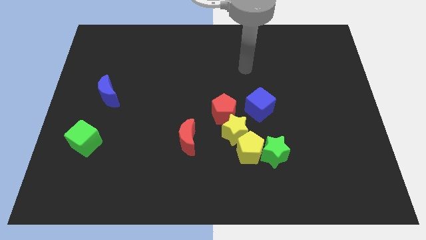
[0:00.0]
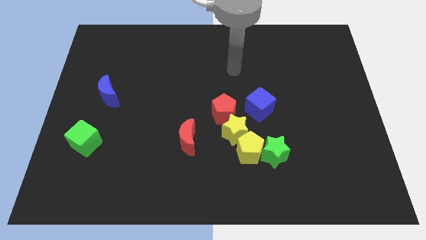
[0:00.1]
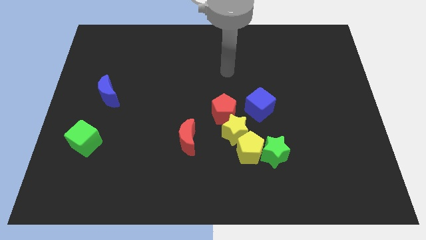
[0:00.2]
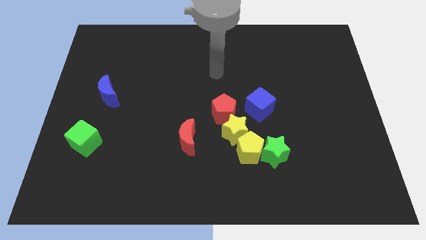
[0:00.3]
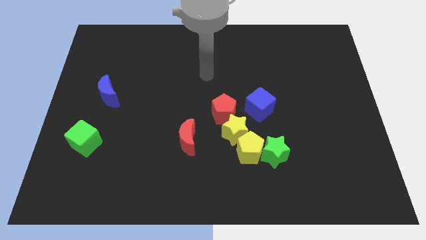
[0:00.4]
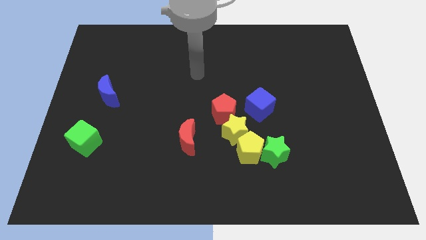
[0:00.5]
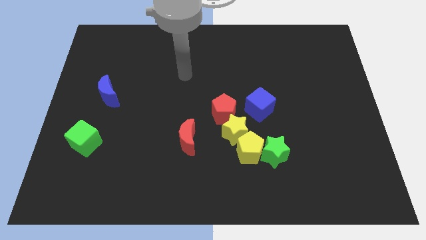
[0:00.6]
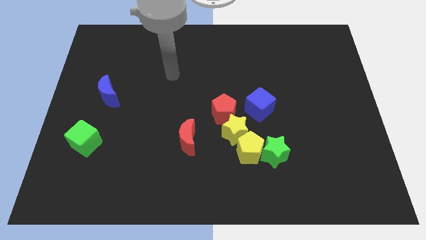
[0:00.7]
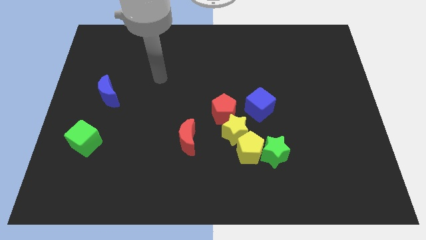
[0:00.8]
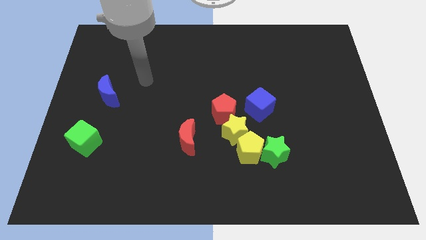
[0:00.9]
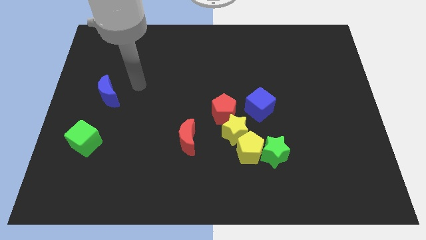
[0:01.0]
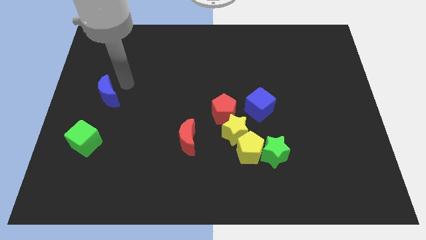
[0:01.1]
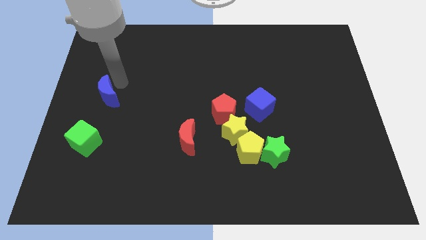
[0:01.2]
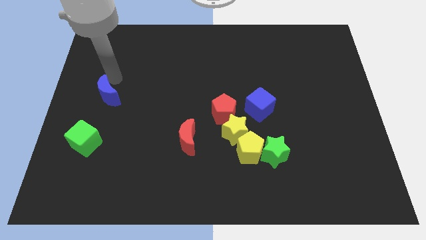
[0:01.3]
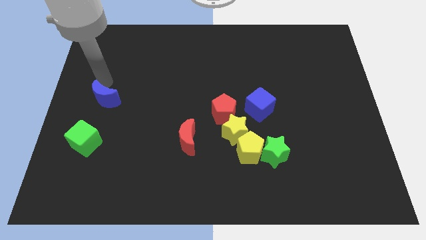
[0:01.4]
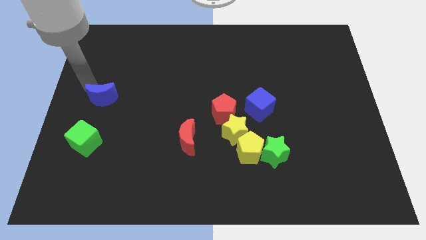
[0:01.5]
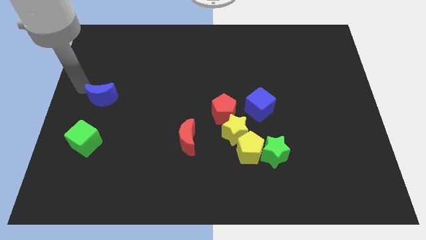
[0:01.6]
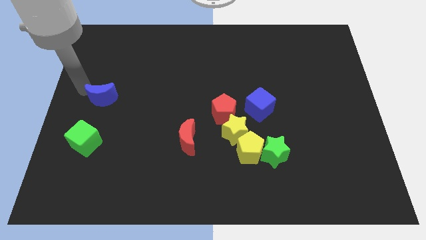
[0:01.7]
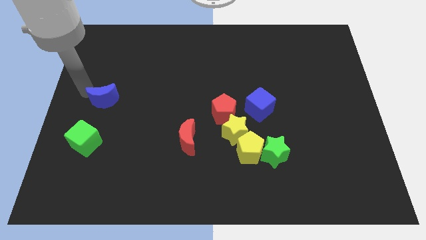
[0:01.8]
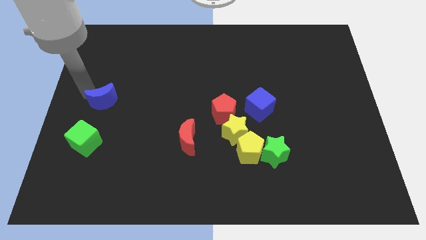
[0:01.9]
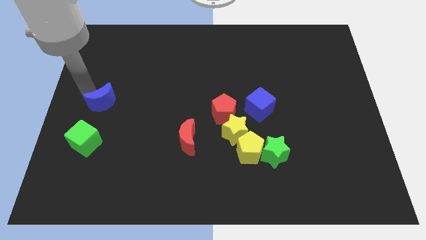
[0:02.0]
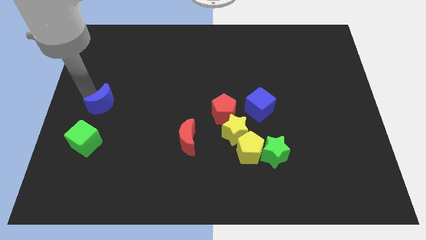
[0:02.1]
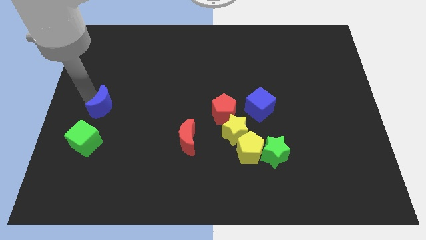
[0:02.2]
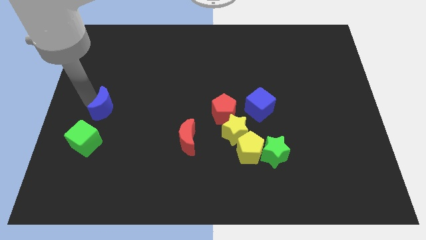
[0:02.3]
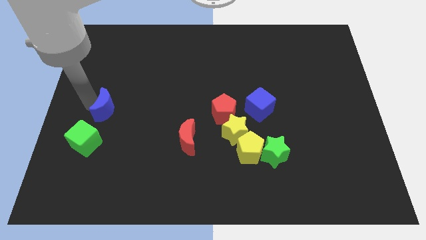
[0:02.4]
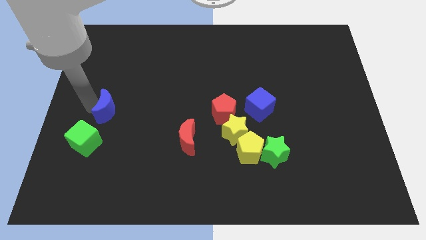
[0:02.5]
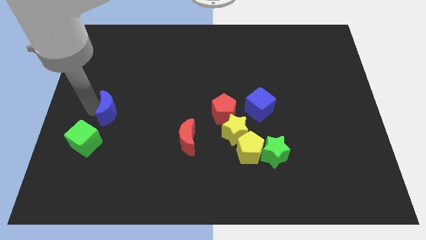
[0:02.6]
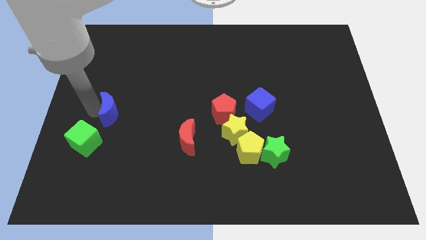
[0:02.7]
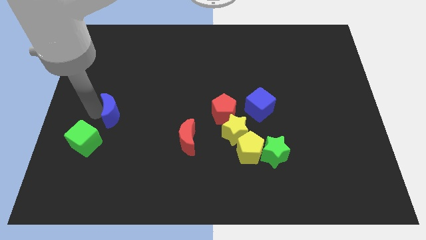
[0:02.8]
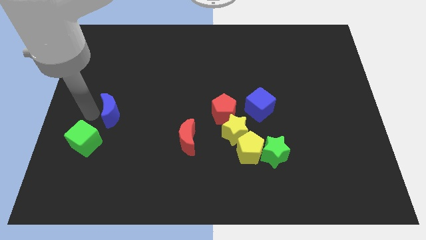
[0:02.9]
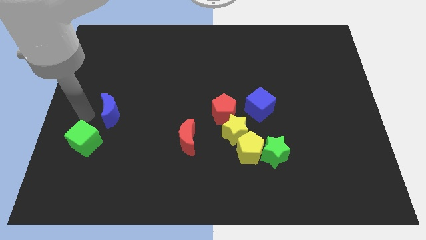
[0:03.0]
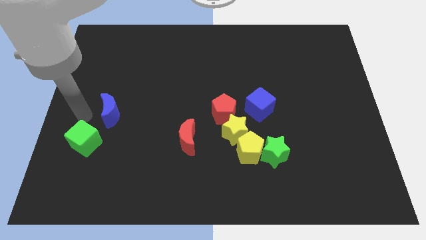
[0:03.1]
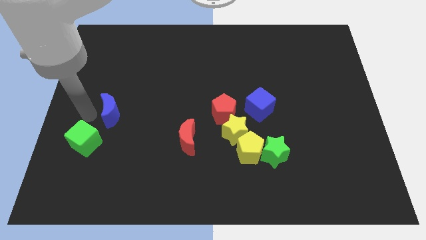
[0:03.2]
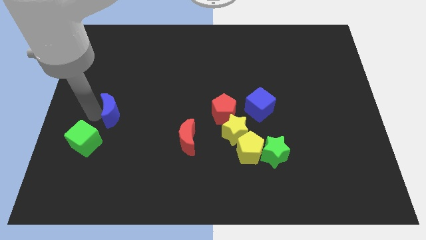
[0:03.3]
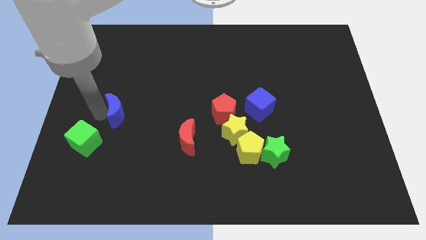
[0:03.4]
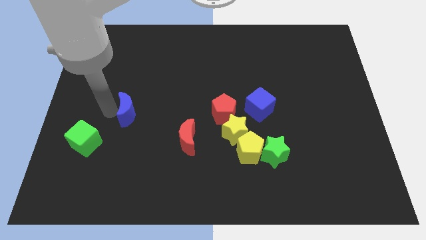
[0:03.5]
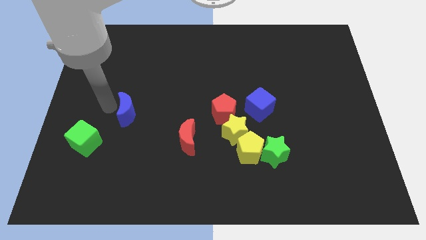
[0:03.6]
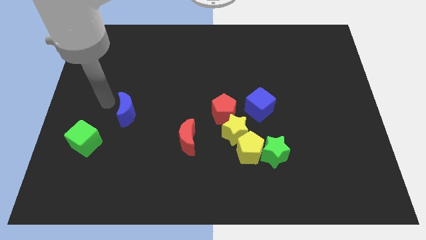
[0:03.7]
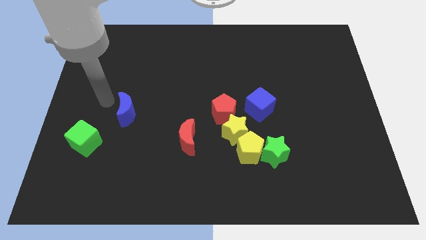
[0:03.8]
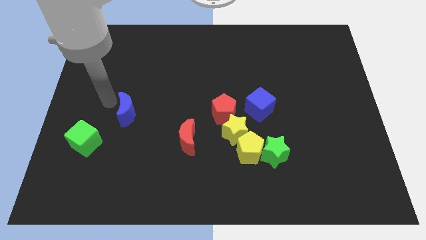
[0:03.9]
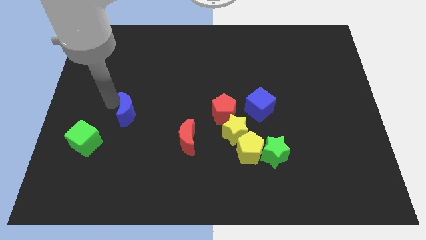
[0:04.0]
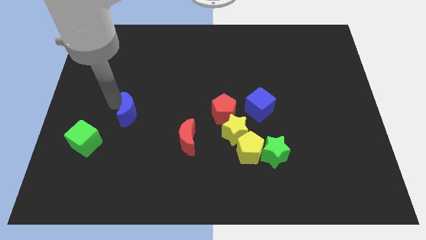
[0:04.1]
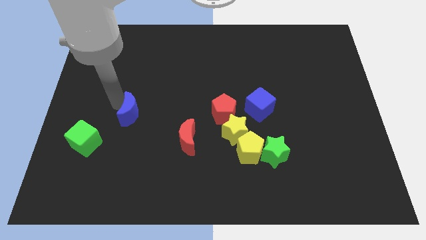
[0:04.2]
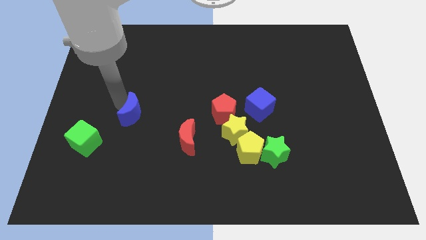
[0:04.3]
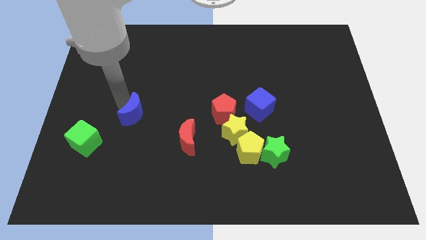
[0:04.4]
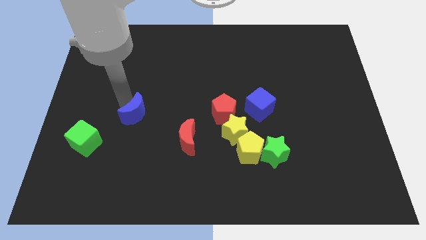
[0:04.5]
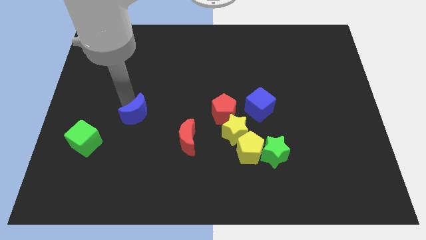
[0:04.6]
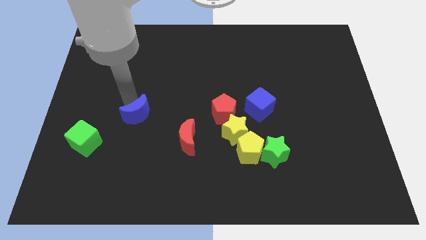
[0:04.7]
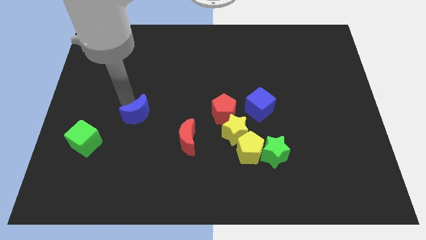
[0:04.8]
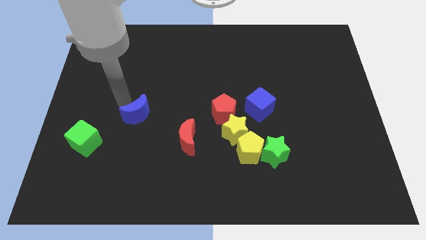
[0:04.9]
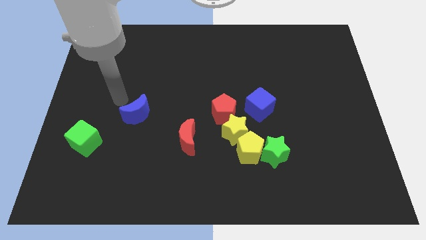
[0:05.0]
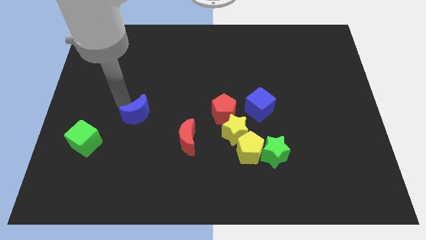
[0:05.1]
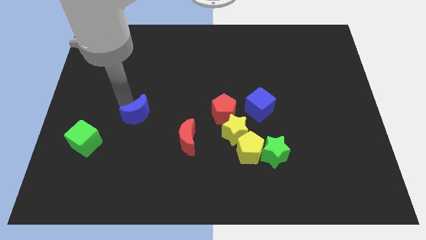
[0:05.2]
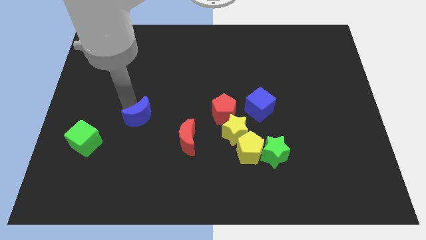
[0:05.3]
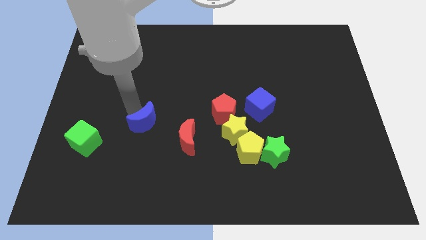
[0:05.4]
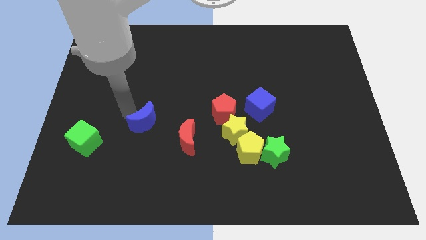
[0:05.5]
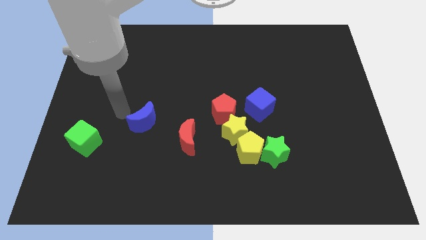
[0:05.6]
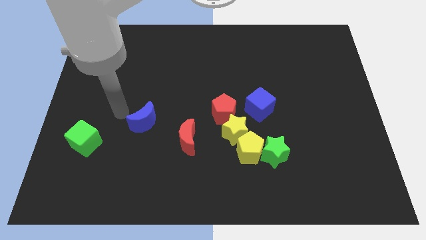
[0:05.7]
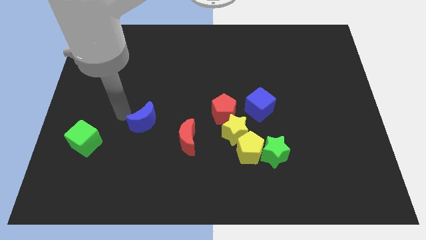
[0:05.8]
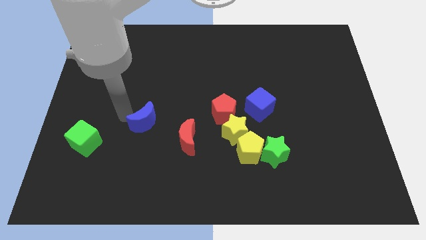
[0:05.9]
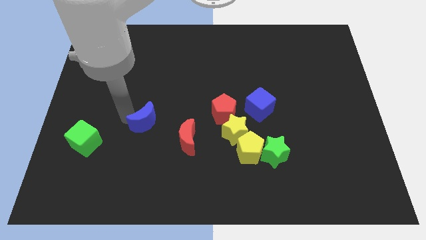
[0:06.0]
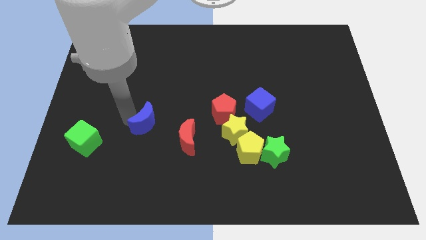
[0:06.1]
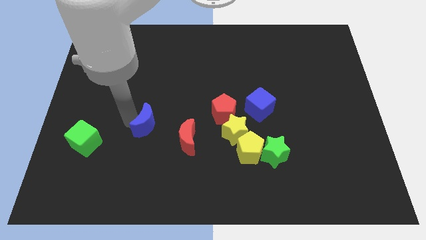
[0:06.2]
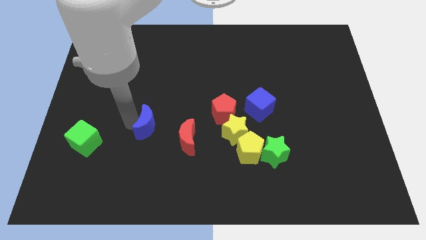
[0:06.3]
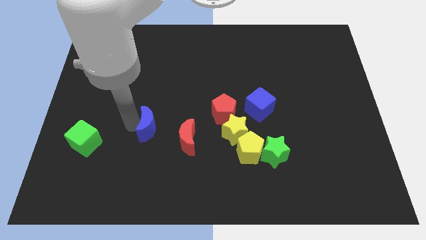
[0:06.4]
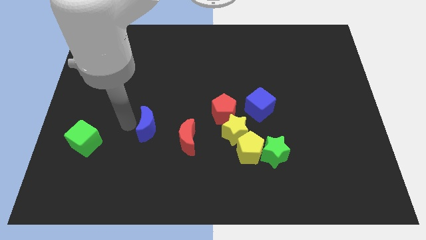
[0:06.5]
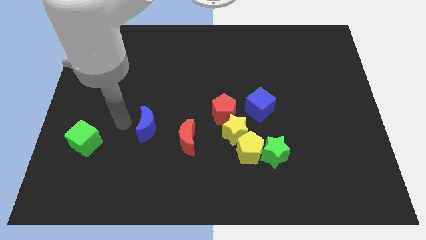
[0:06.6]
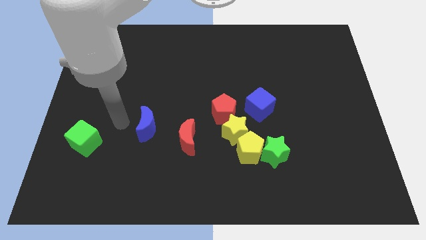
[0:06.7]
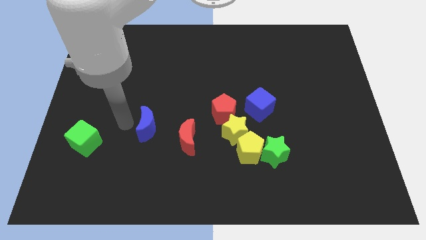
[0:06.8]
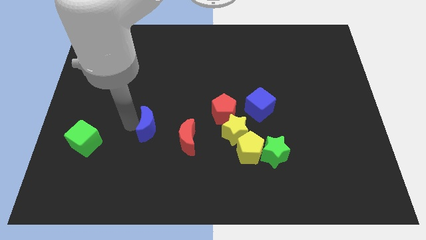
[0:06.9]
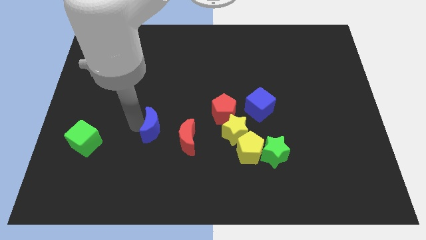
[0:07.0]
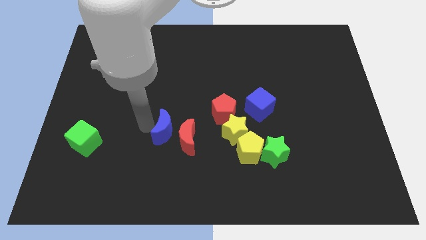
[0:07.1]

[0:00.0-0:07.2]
push the blue moon to the red moon
